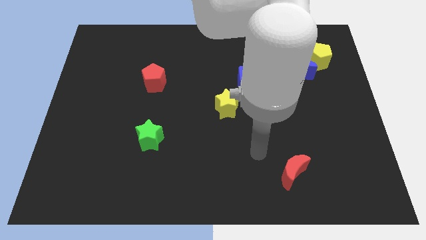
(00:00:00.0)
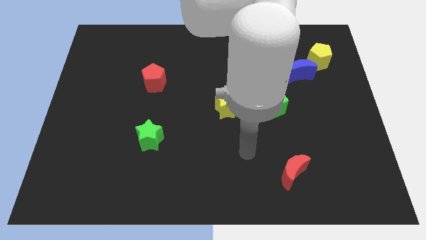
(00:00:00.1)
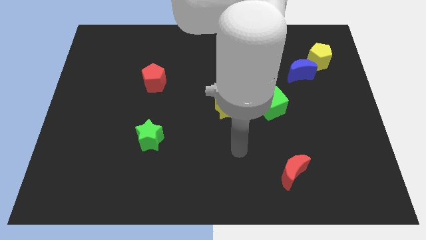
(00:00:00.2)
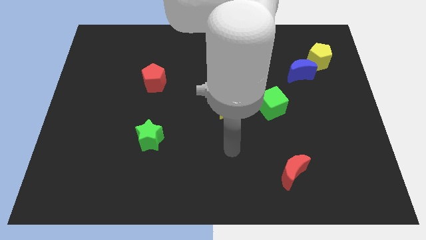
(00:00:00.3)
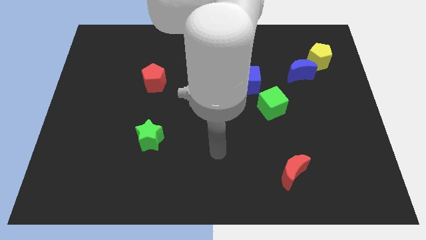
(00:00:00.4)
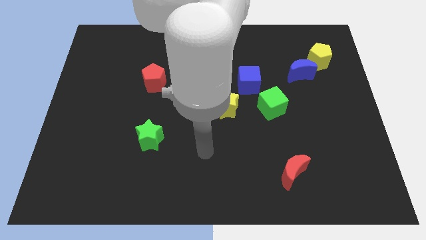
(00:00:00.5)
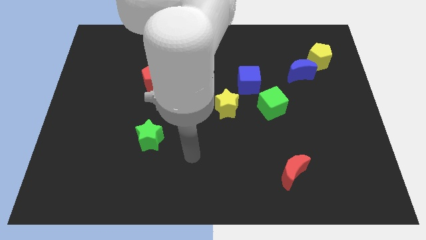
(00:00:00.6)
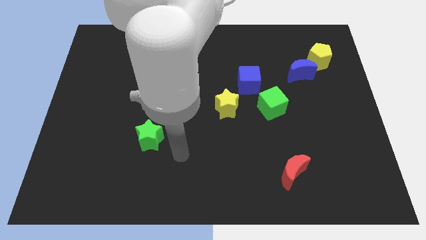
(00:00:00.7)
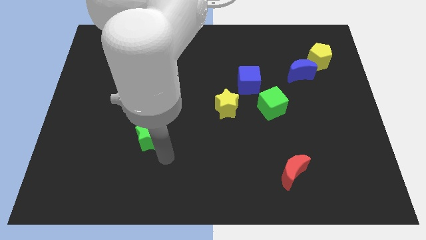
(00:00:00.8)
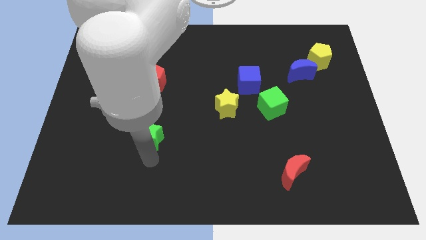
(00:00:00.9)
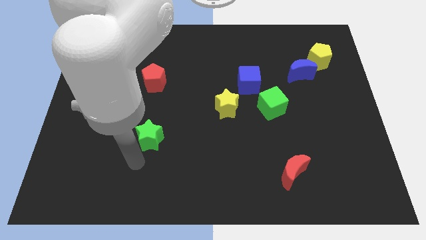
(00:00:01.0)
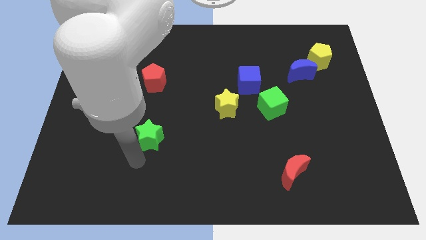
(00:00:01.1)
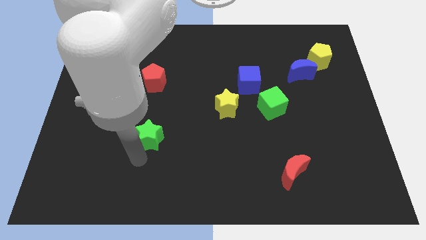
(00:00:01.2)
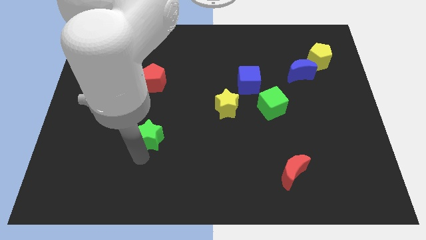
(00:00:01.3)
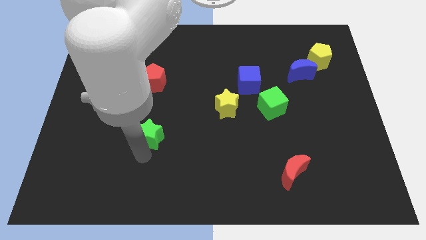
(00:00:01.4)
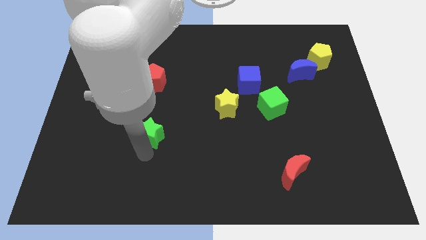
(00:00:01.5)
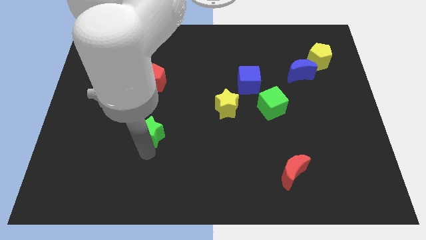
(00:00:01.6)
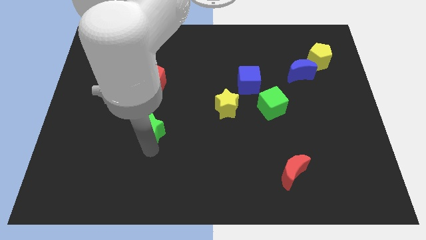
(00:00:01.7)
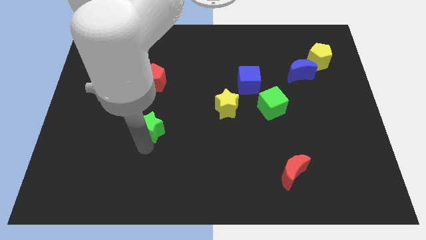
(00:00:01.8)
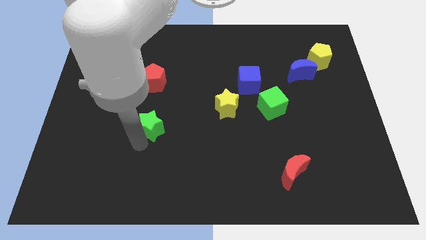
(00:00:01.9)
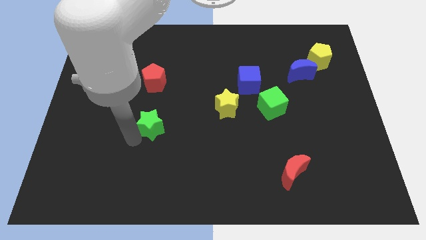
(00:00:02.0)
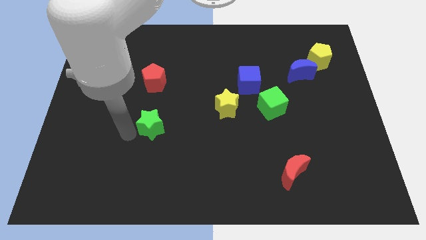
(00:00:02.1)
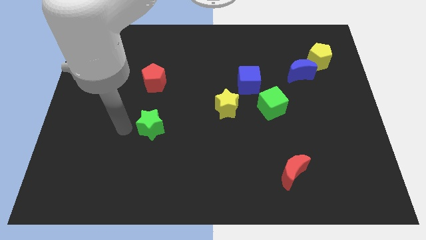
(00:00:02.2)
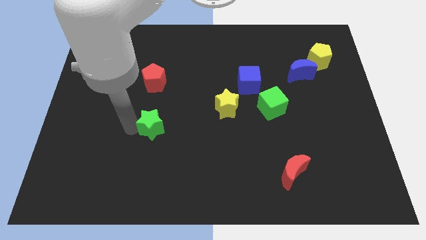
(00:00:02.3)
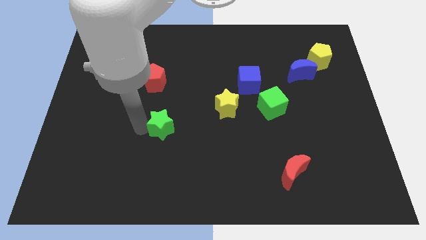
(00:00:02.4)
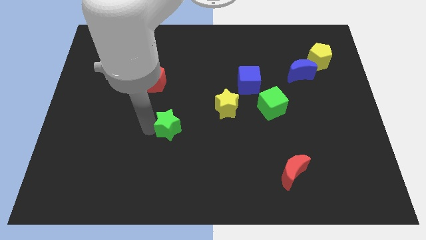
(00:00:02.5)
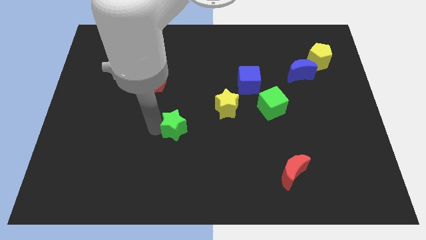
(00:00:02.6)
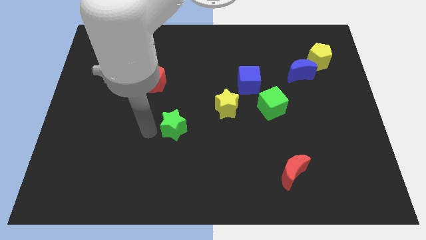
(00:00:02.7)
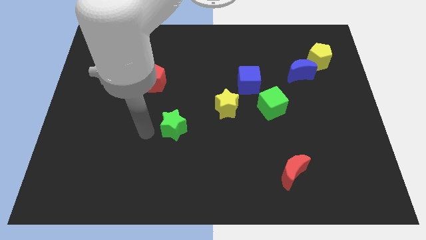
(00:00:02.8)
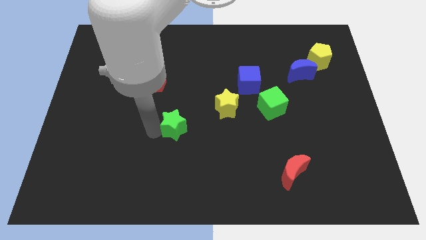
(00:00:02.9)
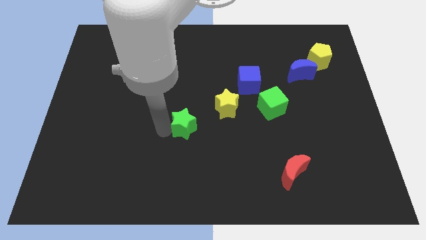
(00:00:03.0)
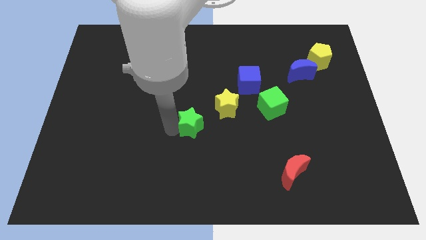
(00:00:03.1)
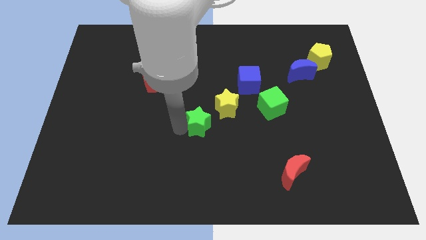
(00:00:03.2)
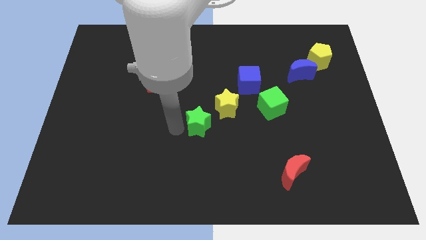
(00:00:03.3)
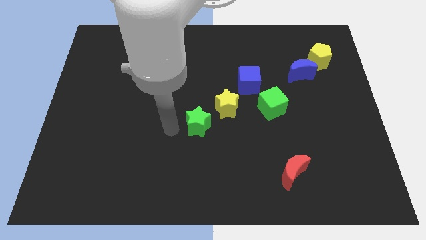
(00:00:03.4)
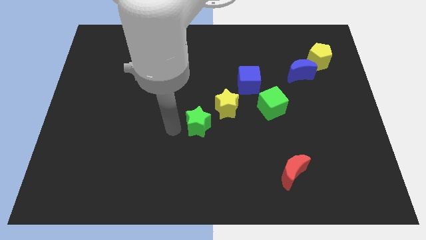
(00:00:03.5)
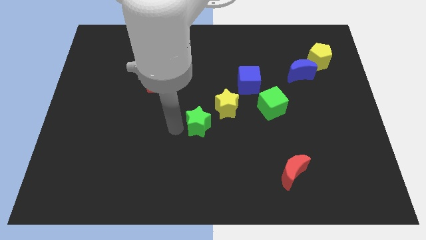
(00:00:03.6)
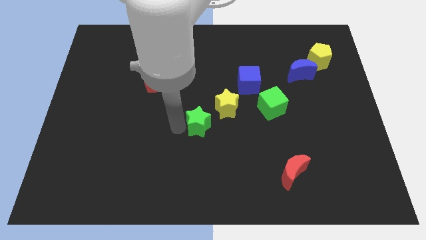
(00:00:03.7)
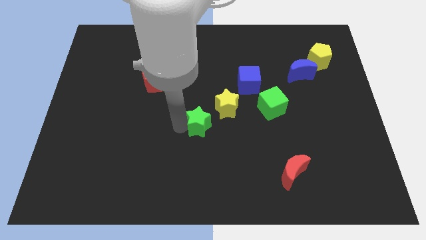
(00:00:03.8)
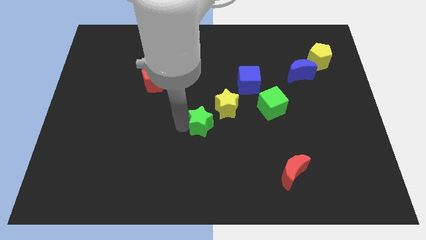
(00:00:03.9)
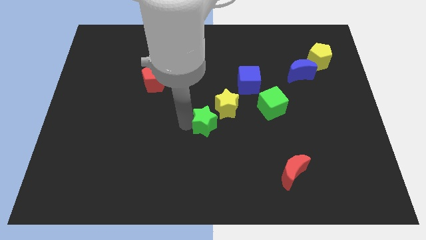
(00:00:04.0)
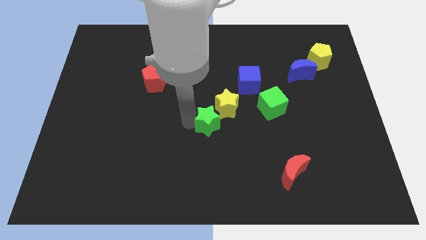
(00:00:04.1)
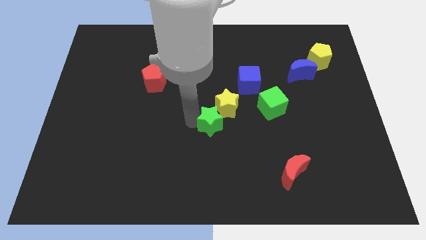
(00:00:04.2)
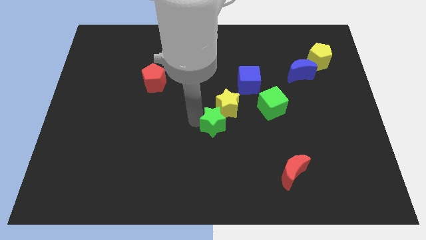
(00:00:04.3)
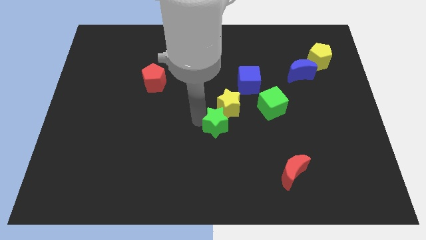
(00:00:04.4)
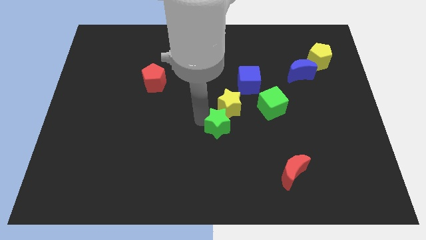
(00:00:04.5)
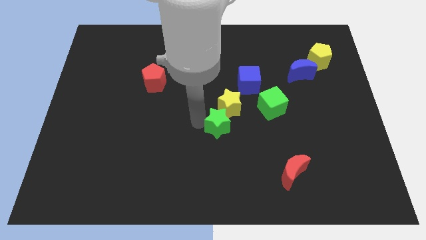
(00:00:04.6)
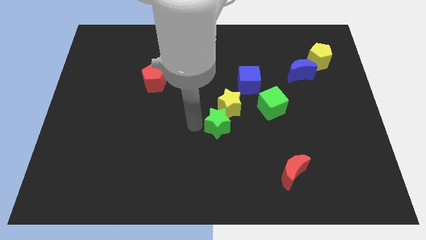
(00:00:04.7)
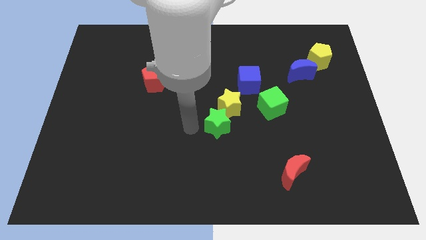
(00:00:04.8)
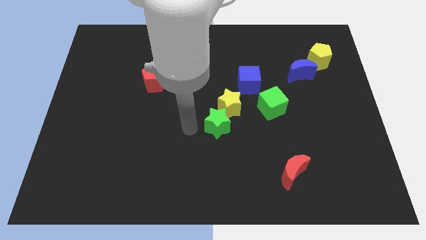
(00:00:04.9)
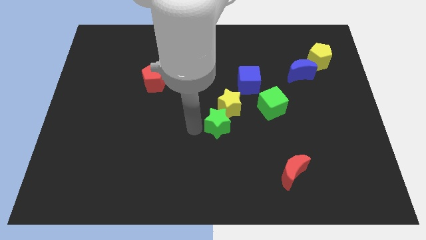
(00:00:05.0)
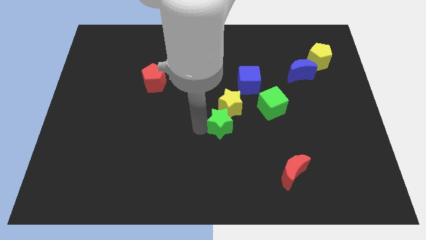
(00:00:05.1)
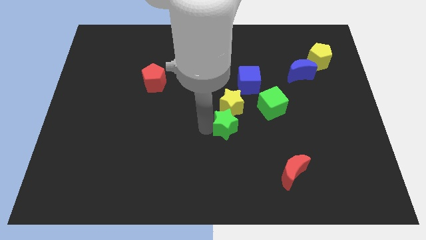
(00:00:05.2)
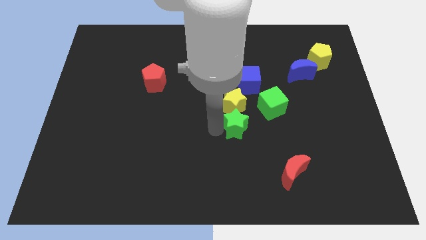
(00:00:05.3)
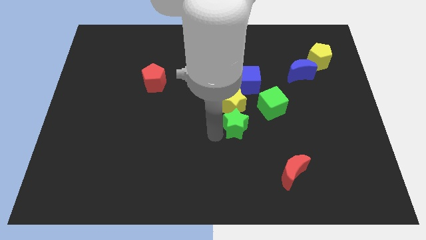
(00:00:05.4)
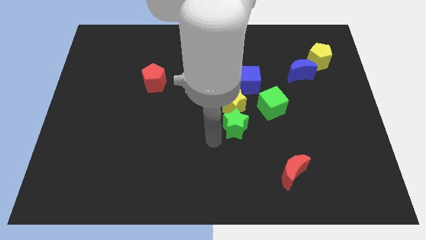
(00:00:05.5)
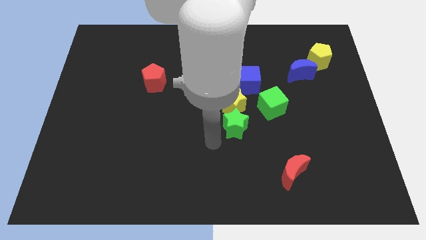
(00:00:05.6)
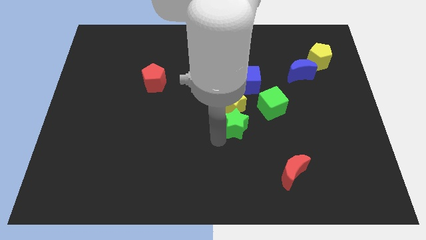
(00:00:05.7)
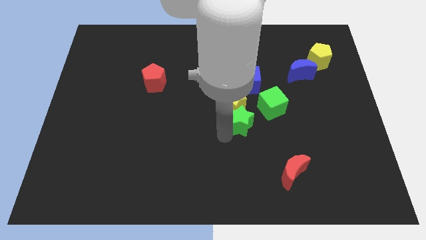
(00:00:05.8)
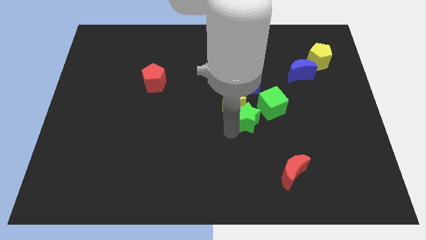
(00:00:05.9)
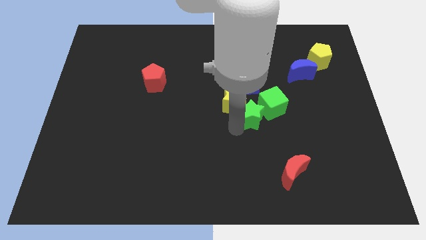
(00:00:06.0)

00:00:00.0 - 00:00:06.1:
move the green star towards the green cube

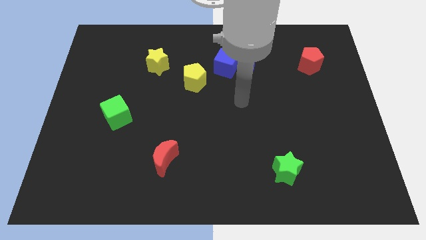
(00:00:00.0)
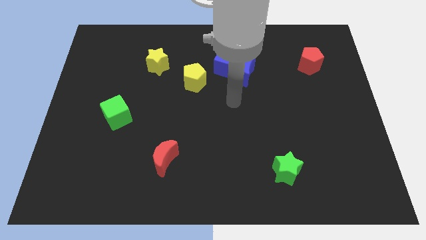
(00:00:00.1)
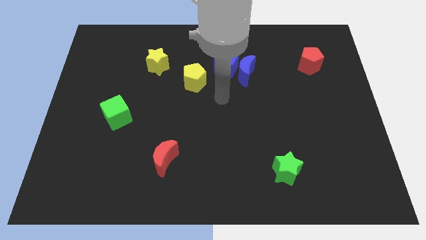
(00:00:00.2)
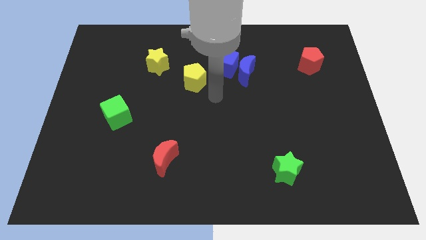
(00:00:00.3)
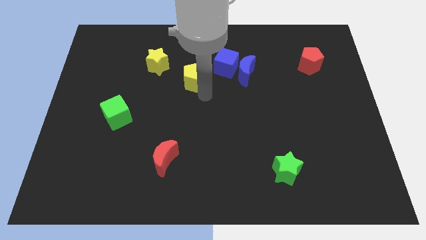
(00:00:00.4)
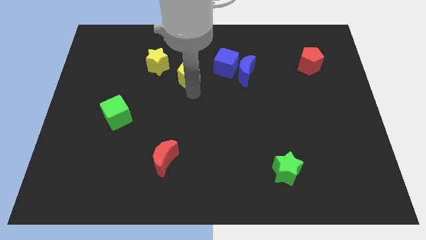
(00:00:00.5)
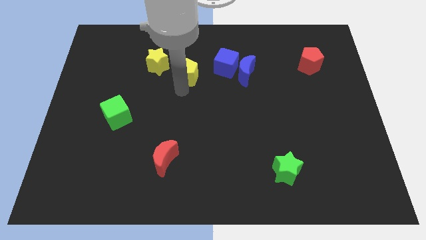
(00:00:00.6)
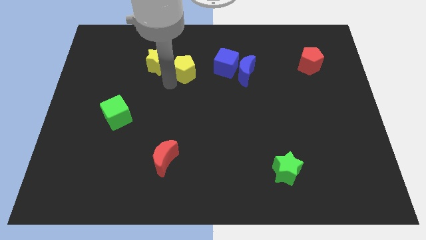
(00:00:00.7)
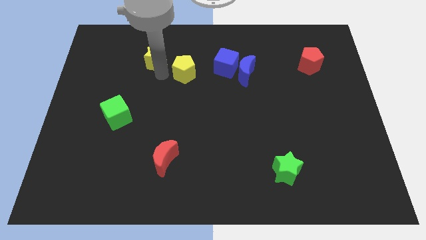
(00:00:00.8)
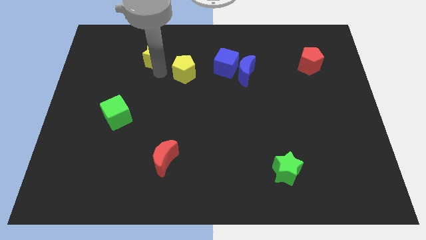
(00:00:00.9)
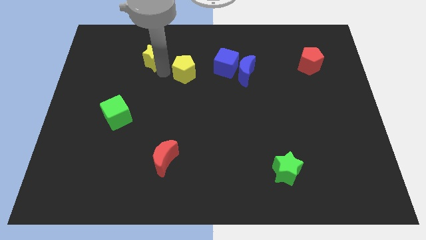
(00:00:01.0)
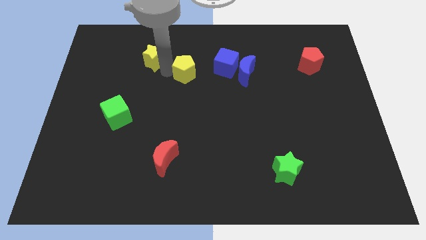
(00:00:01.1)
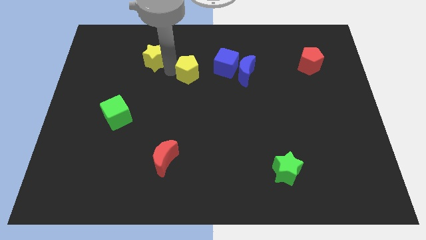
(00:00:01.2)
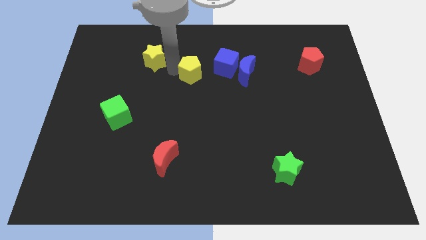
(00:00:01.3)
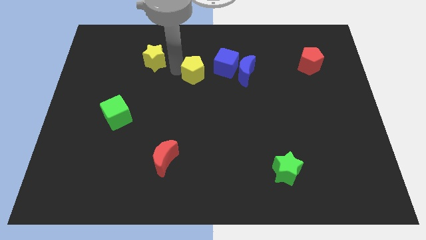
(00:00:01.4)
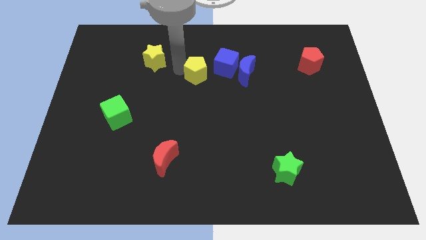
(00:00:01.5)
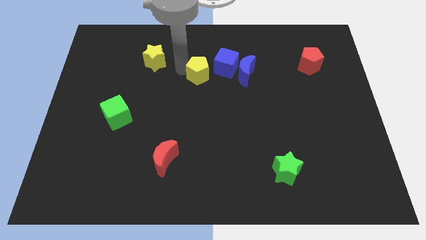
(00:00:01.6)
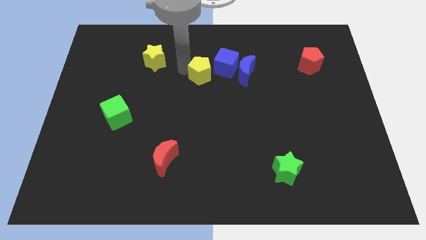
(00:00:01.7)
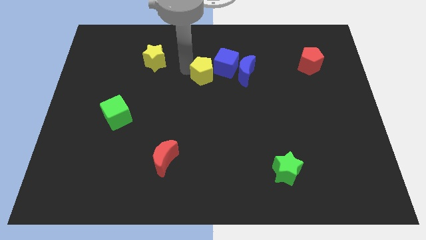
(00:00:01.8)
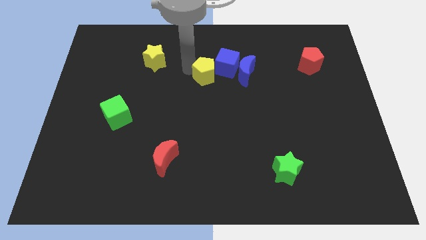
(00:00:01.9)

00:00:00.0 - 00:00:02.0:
slide the yellow pentagon next to the blue cube
